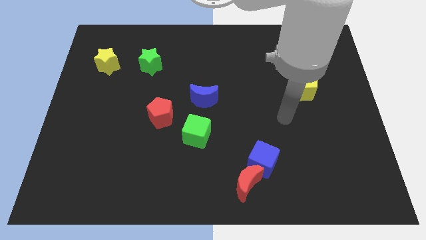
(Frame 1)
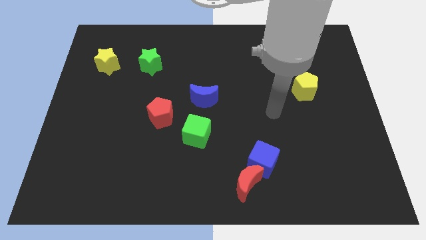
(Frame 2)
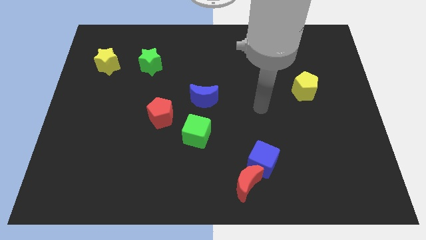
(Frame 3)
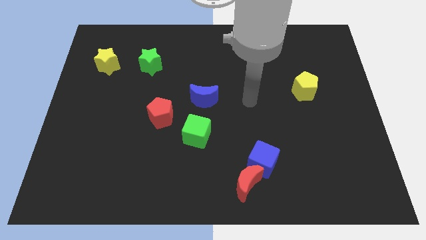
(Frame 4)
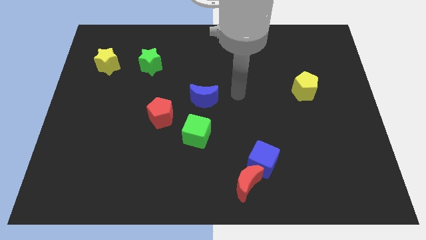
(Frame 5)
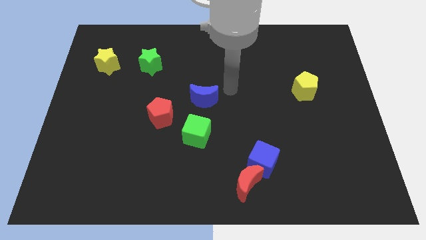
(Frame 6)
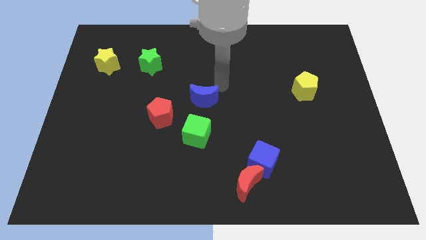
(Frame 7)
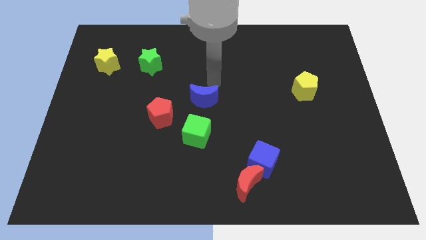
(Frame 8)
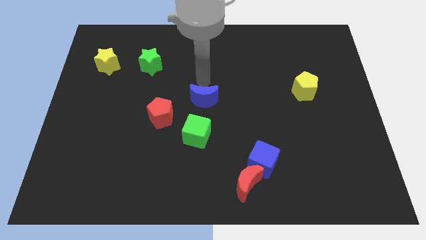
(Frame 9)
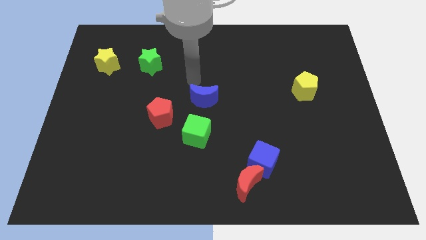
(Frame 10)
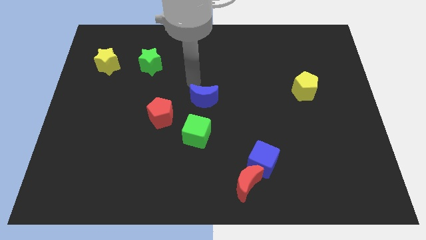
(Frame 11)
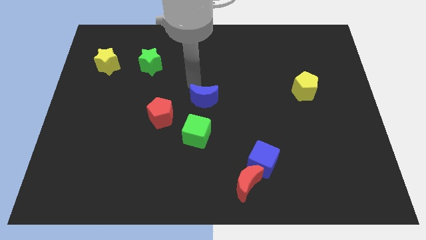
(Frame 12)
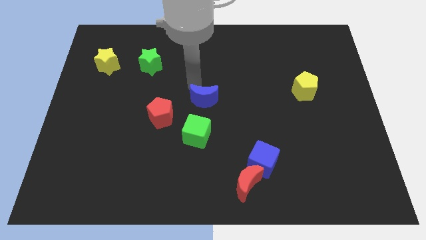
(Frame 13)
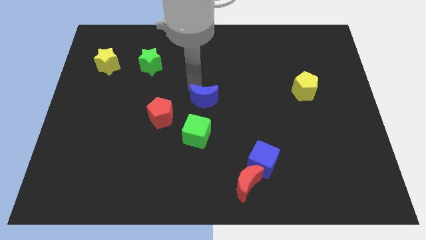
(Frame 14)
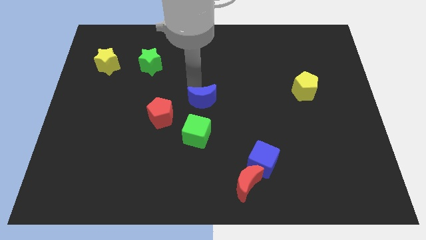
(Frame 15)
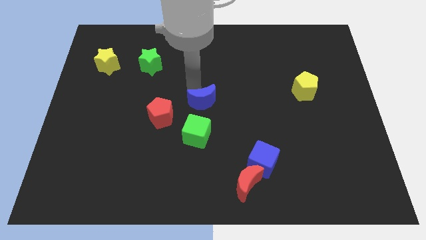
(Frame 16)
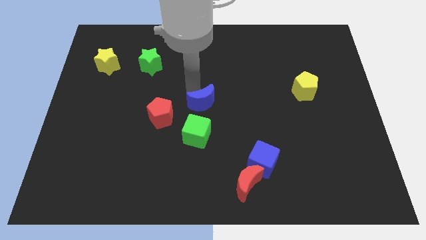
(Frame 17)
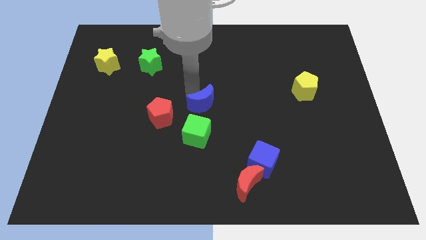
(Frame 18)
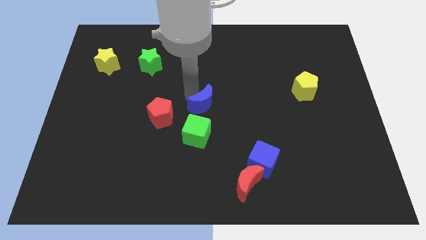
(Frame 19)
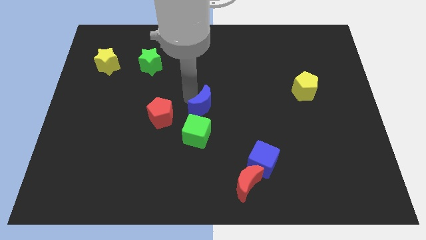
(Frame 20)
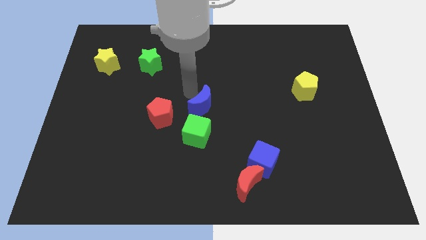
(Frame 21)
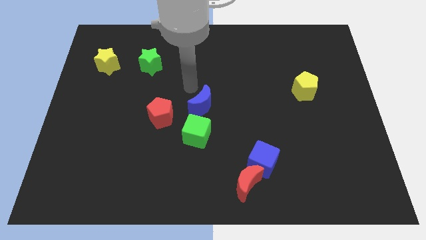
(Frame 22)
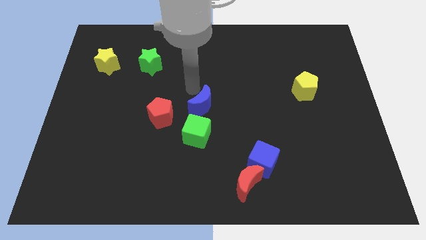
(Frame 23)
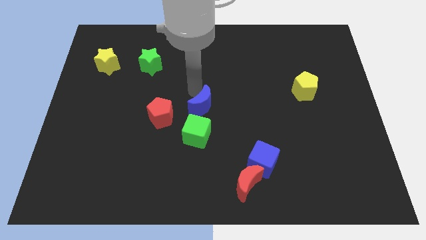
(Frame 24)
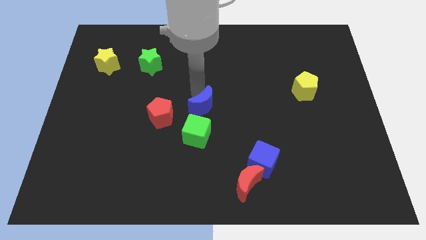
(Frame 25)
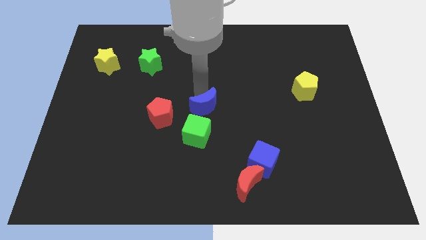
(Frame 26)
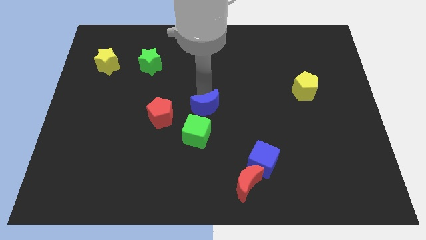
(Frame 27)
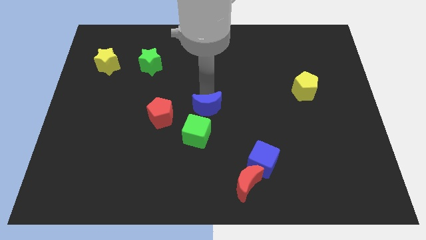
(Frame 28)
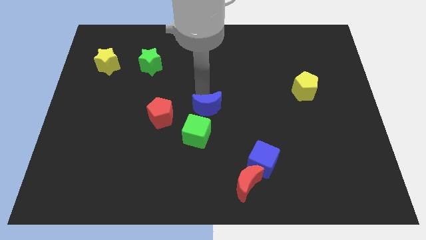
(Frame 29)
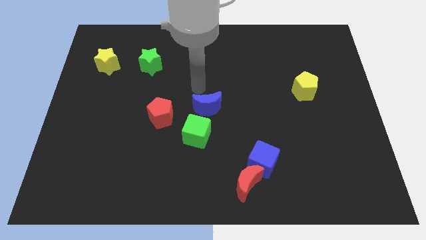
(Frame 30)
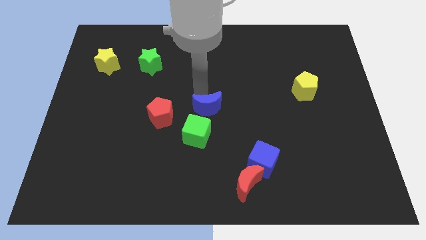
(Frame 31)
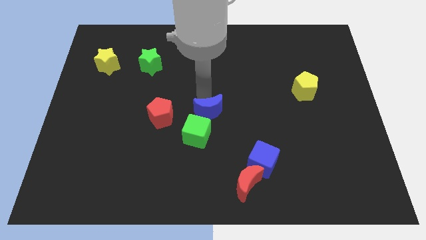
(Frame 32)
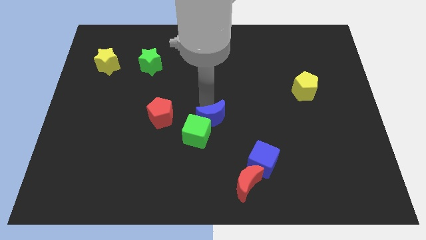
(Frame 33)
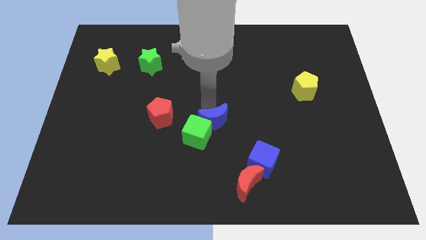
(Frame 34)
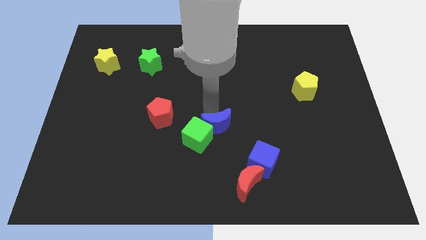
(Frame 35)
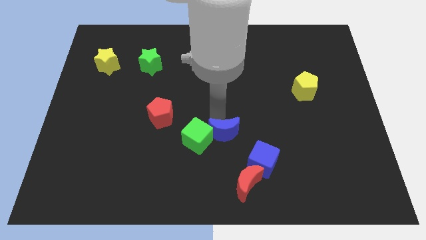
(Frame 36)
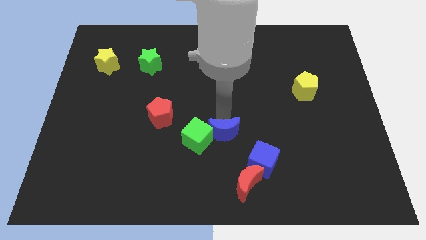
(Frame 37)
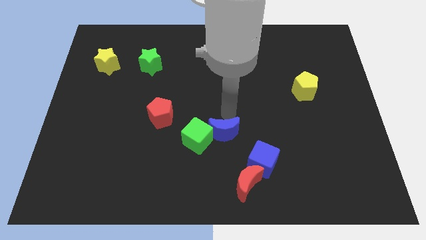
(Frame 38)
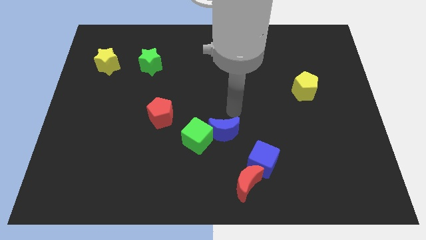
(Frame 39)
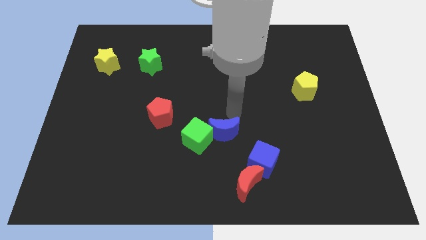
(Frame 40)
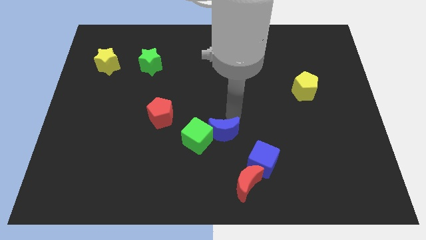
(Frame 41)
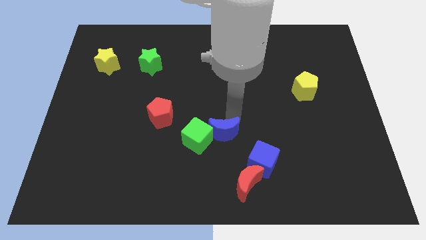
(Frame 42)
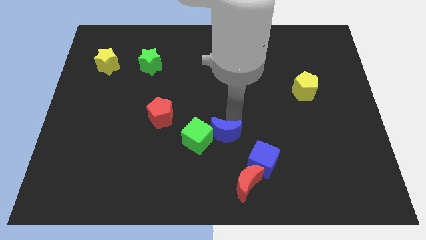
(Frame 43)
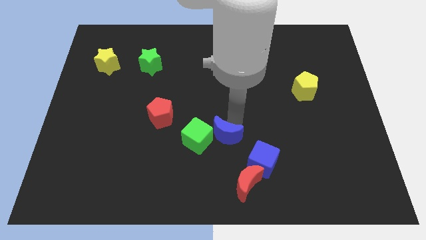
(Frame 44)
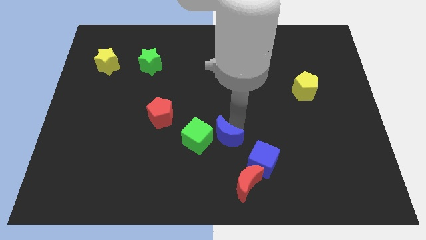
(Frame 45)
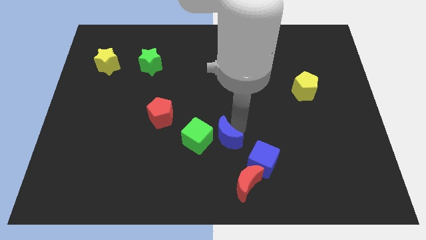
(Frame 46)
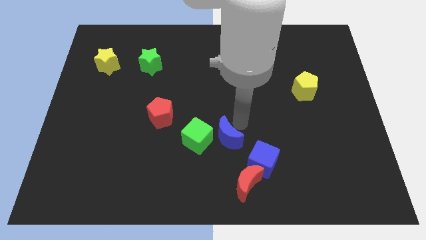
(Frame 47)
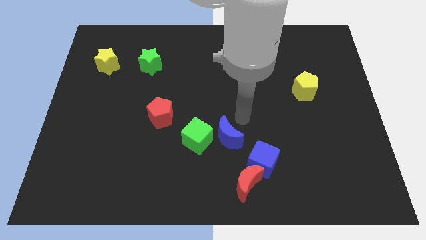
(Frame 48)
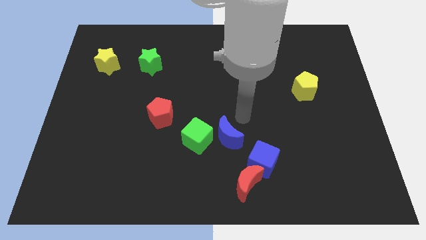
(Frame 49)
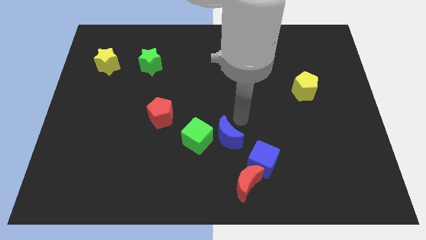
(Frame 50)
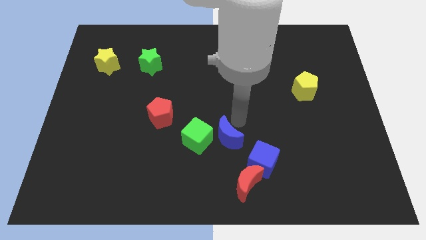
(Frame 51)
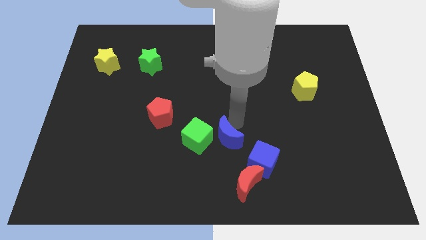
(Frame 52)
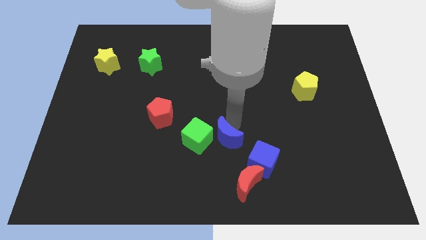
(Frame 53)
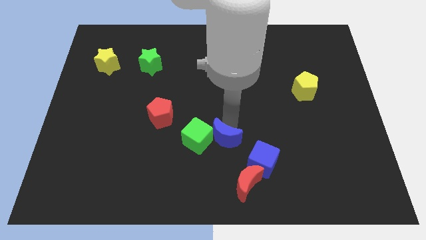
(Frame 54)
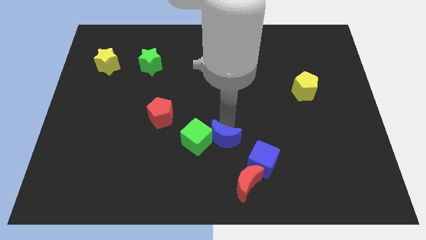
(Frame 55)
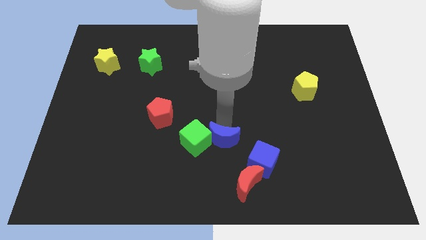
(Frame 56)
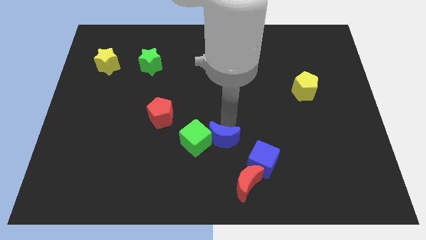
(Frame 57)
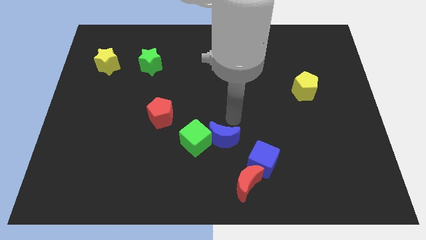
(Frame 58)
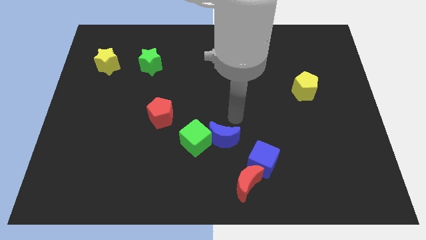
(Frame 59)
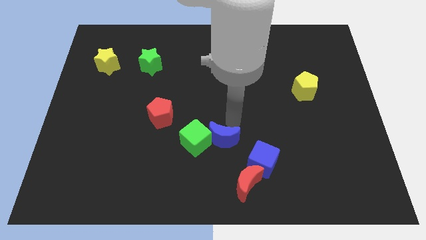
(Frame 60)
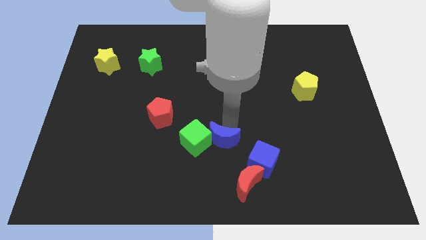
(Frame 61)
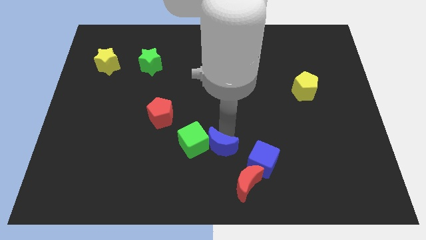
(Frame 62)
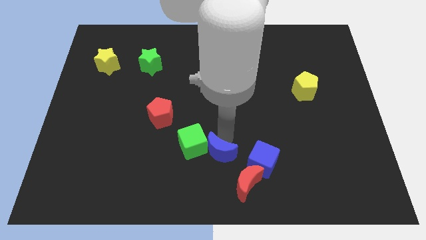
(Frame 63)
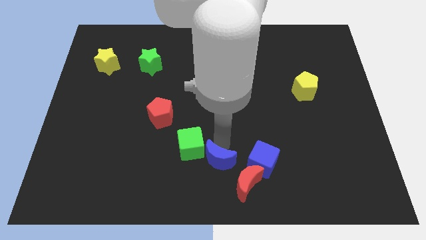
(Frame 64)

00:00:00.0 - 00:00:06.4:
push the blue moon to the bottom side
